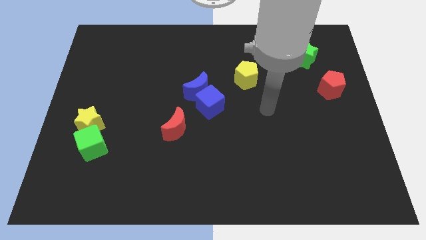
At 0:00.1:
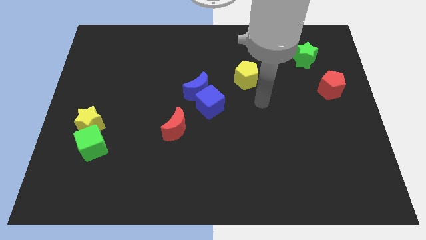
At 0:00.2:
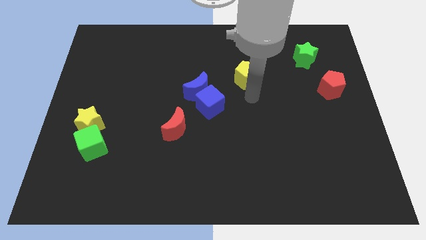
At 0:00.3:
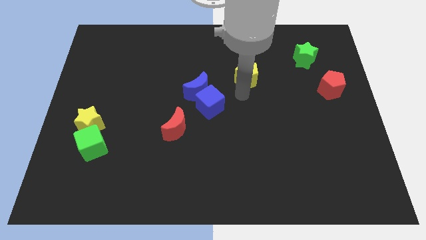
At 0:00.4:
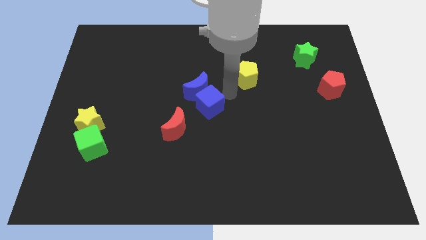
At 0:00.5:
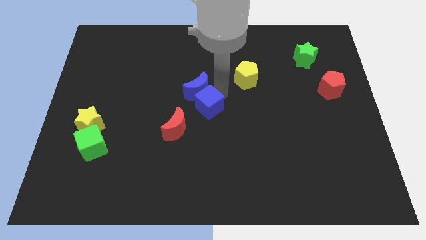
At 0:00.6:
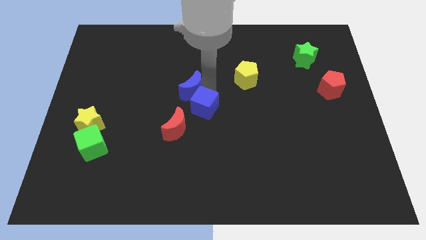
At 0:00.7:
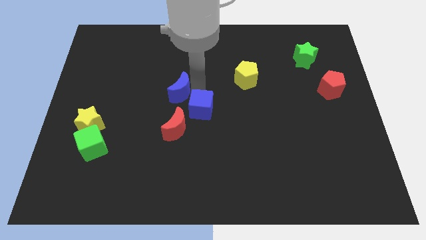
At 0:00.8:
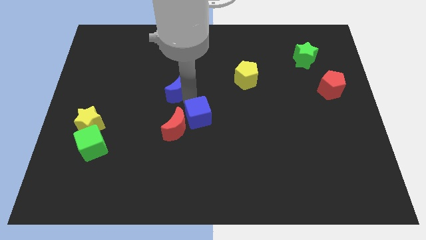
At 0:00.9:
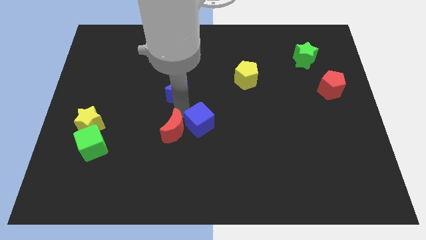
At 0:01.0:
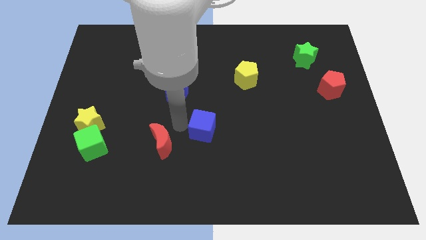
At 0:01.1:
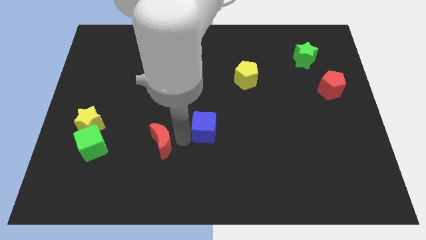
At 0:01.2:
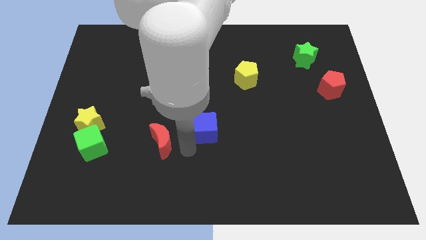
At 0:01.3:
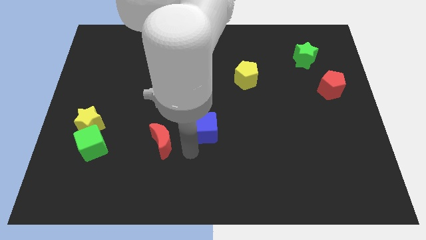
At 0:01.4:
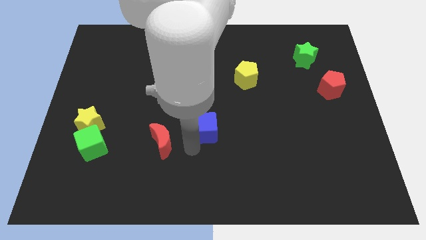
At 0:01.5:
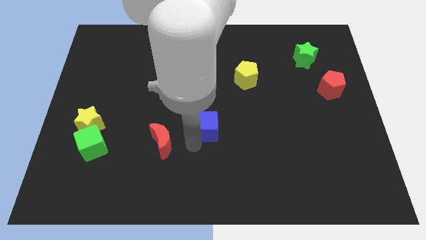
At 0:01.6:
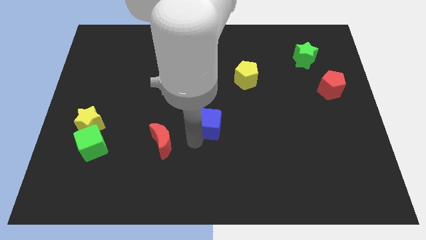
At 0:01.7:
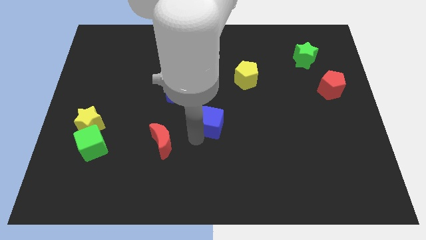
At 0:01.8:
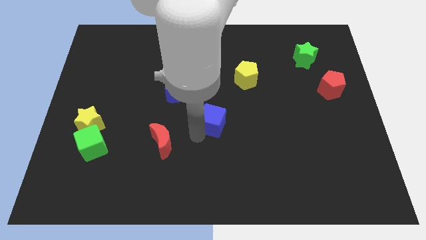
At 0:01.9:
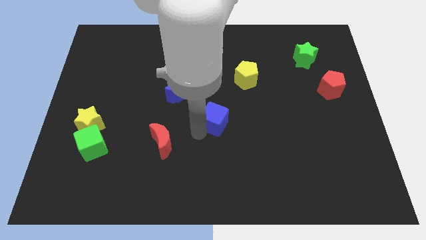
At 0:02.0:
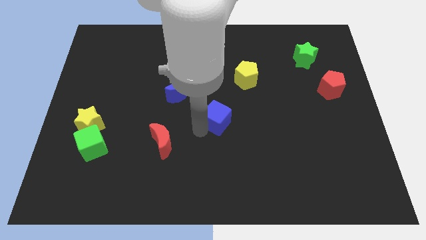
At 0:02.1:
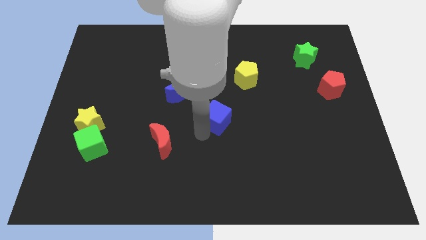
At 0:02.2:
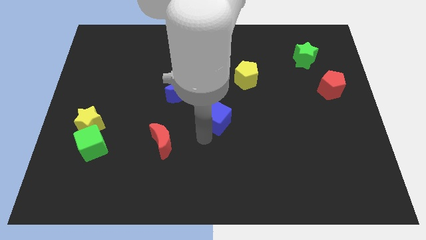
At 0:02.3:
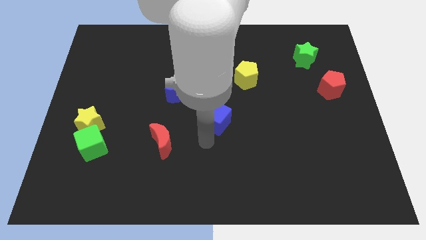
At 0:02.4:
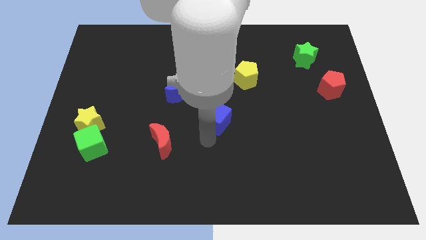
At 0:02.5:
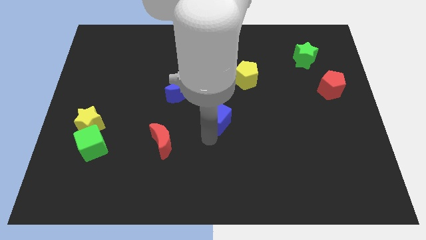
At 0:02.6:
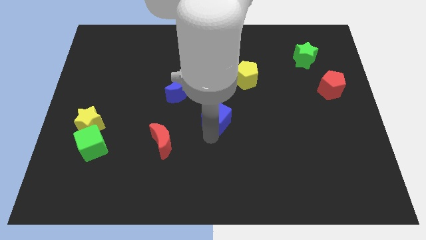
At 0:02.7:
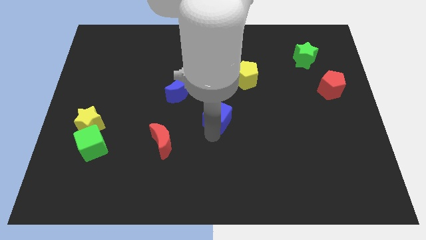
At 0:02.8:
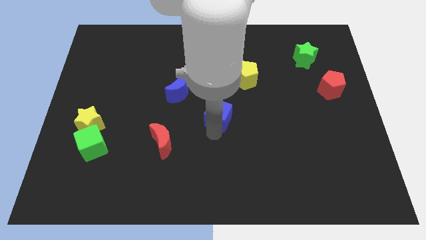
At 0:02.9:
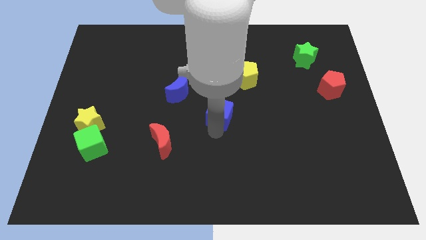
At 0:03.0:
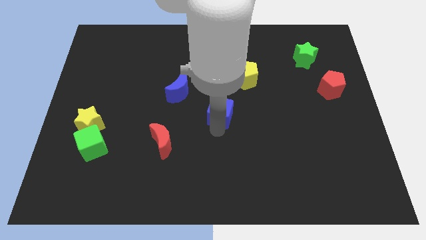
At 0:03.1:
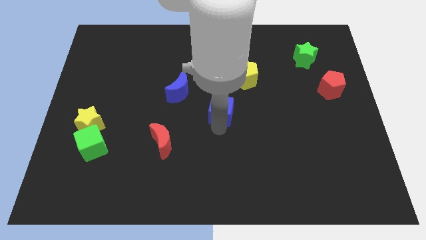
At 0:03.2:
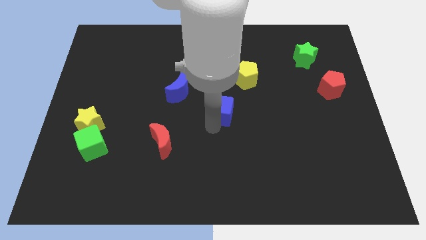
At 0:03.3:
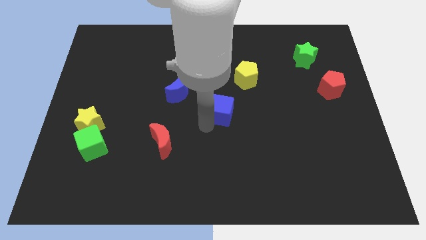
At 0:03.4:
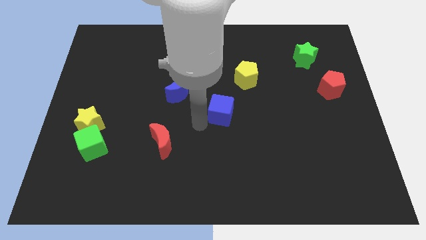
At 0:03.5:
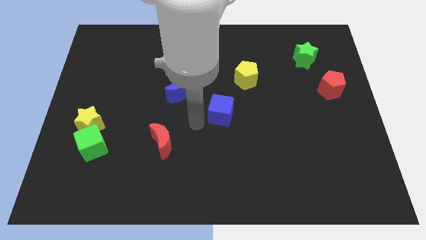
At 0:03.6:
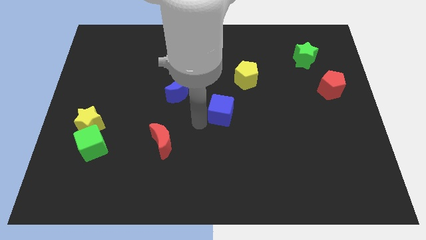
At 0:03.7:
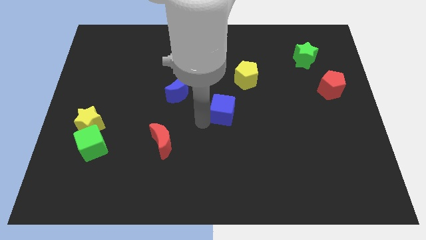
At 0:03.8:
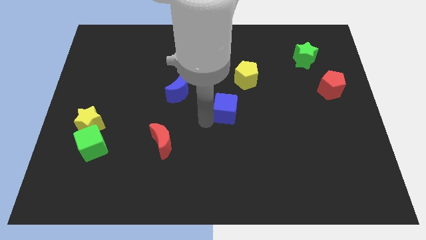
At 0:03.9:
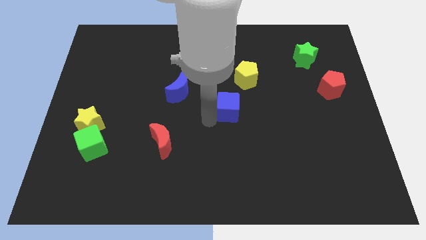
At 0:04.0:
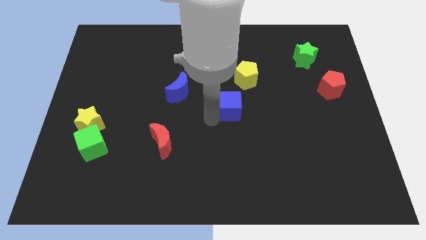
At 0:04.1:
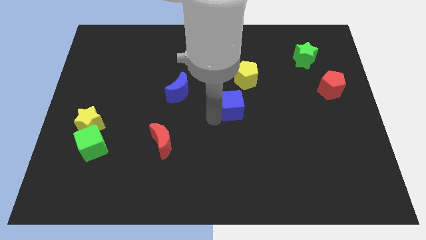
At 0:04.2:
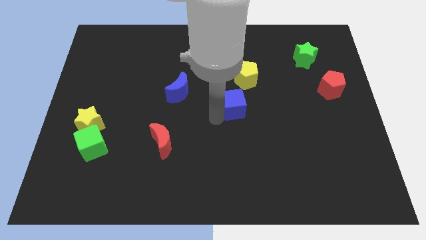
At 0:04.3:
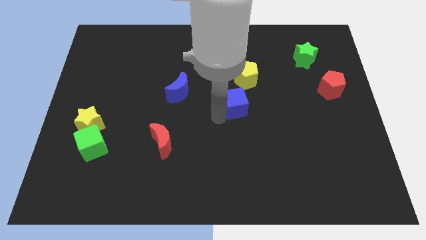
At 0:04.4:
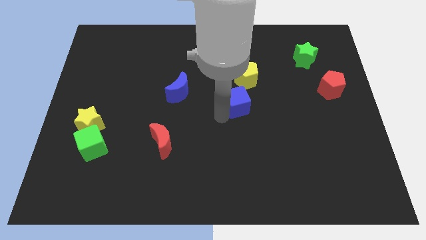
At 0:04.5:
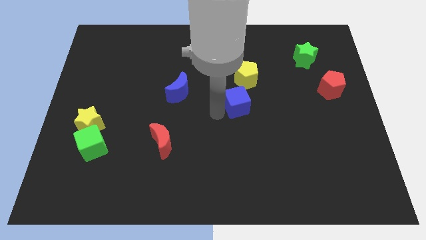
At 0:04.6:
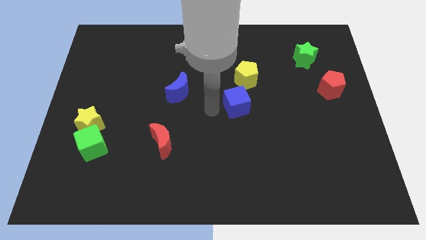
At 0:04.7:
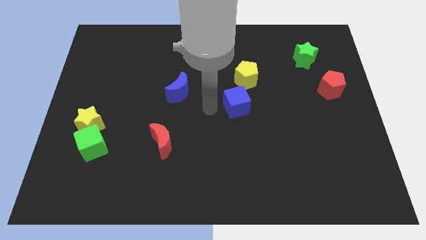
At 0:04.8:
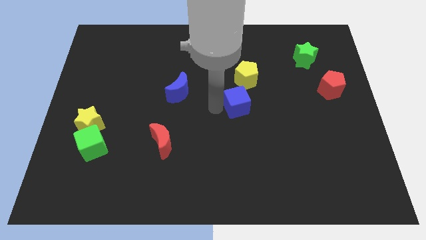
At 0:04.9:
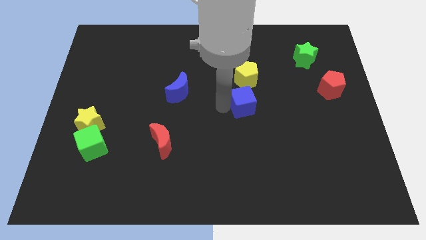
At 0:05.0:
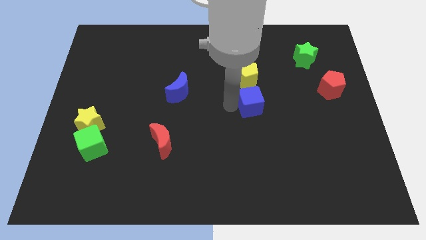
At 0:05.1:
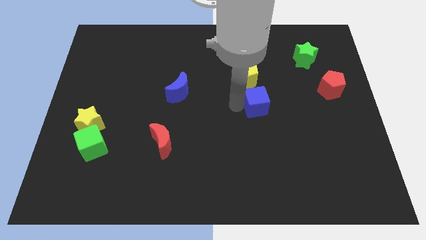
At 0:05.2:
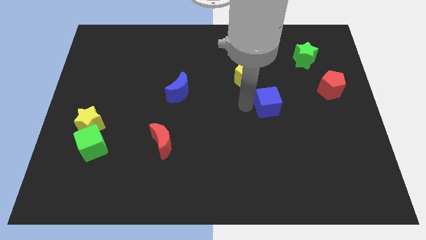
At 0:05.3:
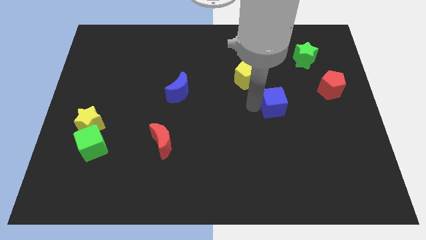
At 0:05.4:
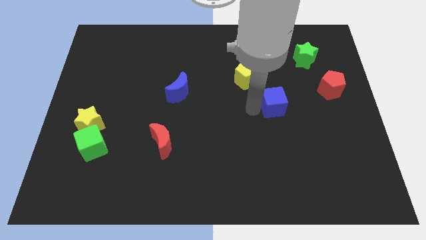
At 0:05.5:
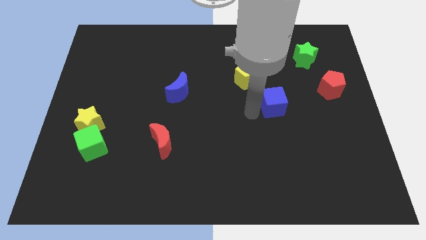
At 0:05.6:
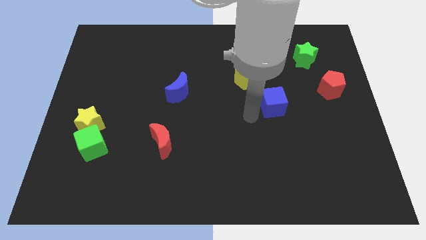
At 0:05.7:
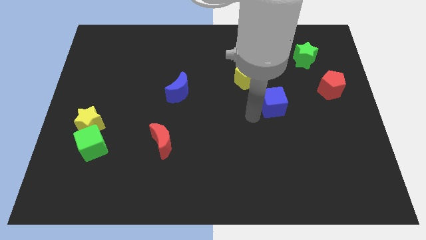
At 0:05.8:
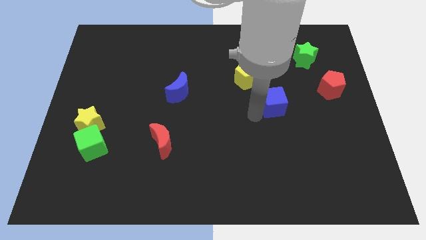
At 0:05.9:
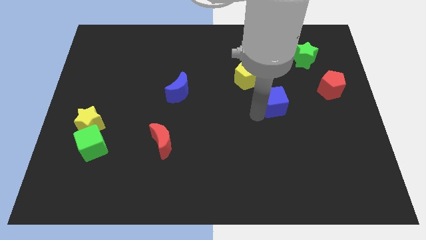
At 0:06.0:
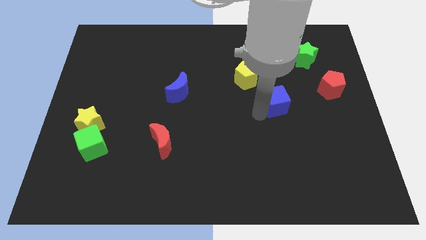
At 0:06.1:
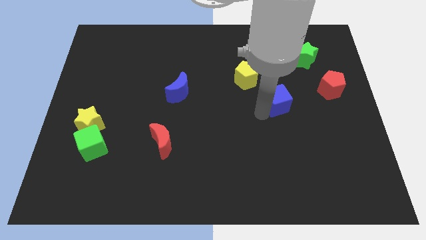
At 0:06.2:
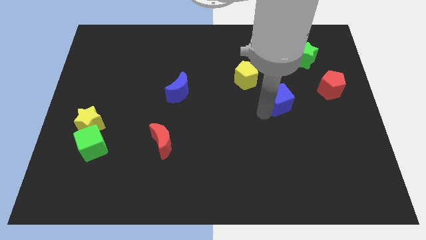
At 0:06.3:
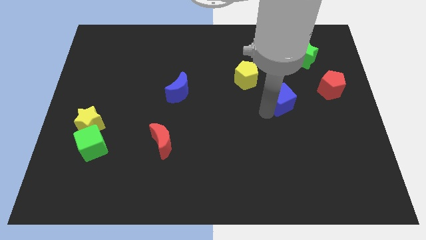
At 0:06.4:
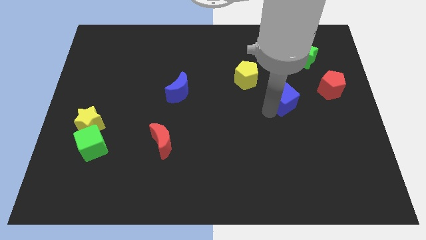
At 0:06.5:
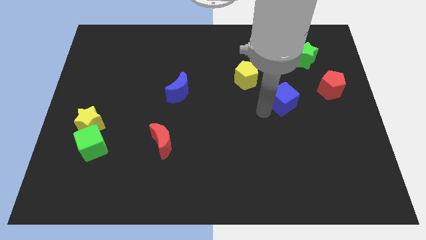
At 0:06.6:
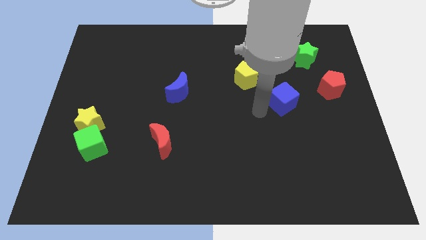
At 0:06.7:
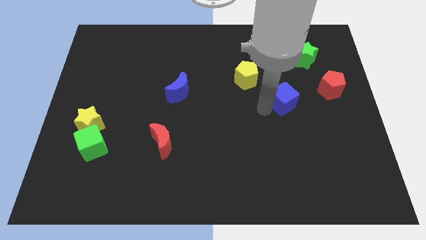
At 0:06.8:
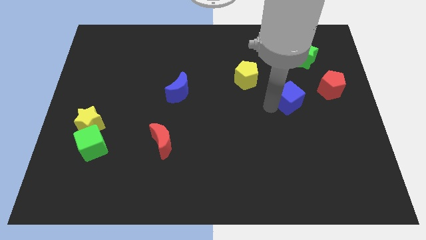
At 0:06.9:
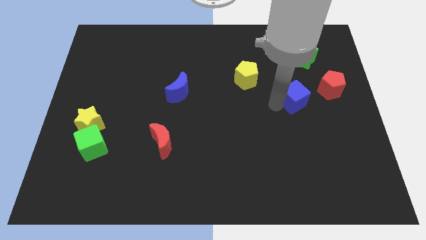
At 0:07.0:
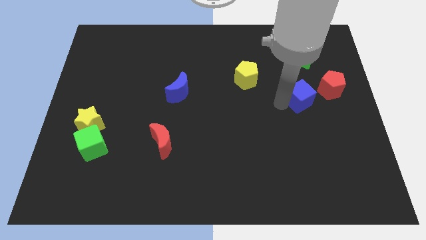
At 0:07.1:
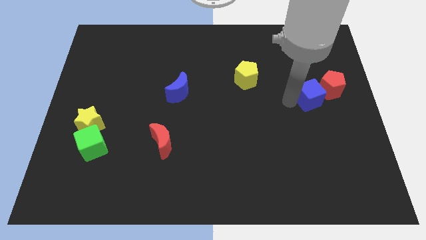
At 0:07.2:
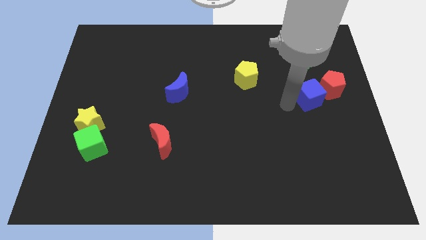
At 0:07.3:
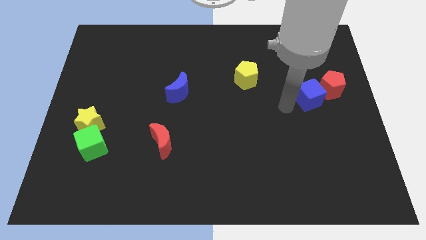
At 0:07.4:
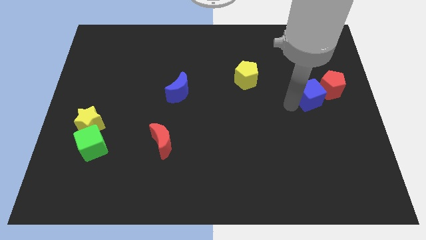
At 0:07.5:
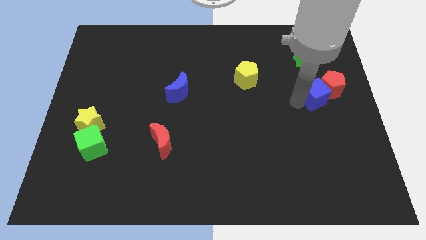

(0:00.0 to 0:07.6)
put the blue cube to the red pentagon
